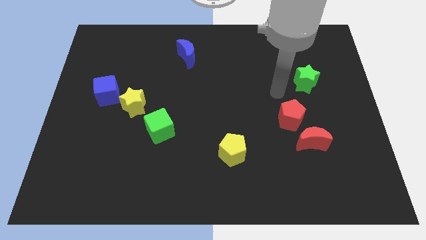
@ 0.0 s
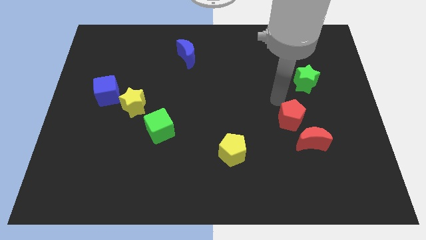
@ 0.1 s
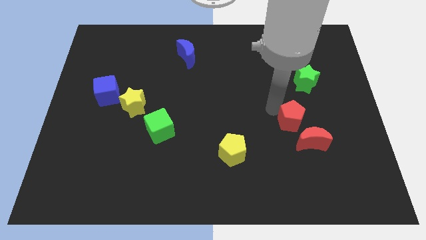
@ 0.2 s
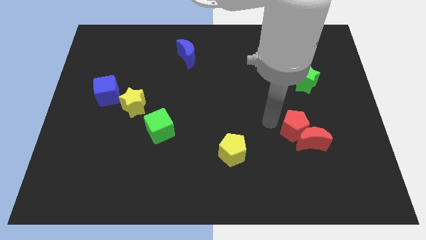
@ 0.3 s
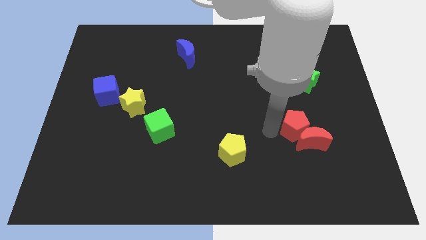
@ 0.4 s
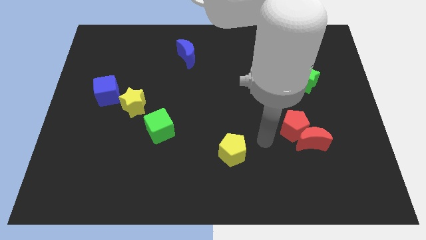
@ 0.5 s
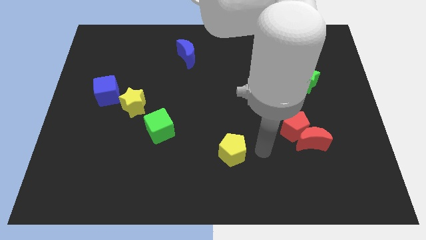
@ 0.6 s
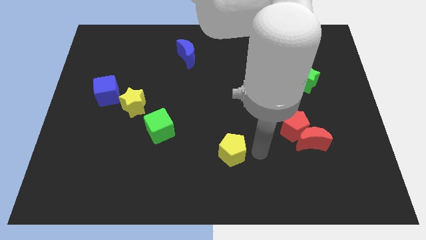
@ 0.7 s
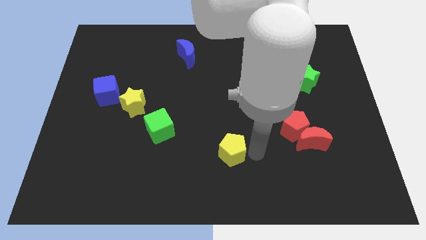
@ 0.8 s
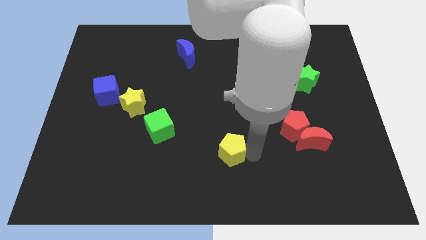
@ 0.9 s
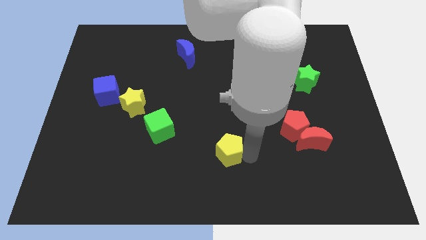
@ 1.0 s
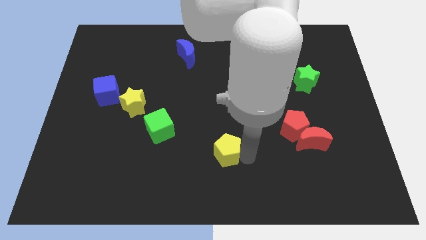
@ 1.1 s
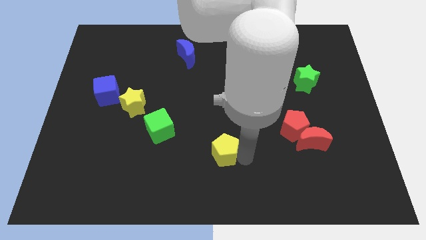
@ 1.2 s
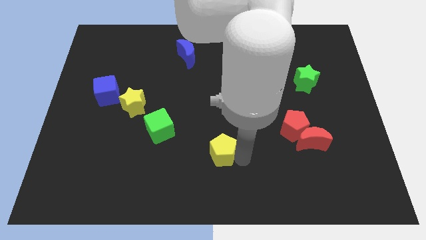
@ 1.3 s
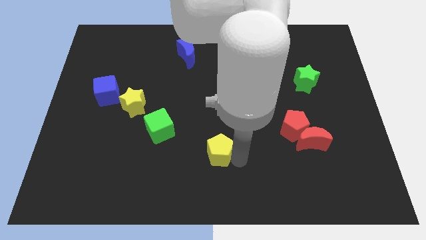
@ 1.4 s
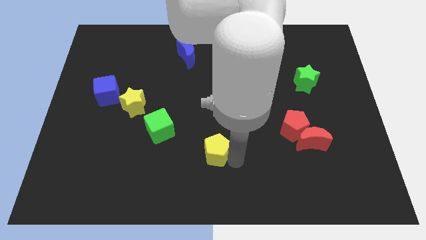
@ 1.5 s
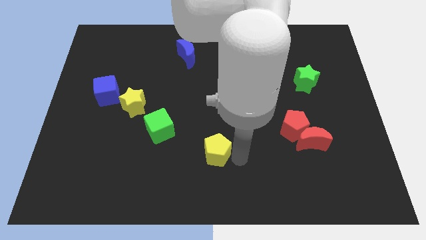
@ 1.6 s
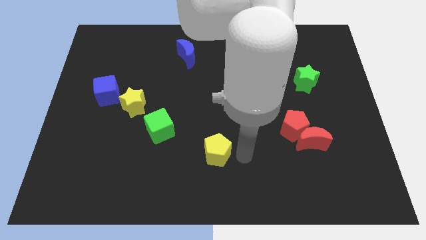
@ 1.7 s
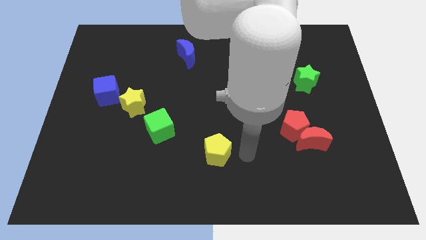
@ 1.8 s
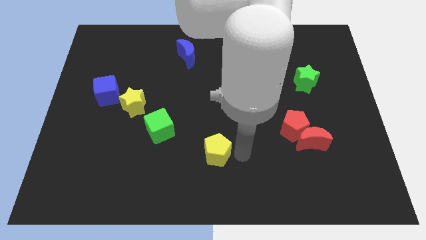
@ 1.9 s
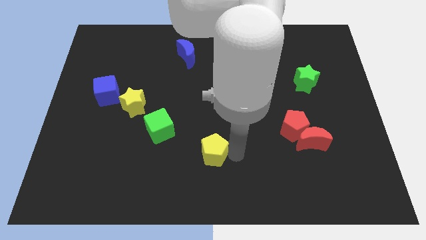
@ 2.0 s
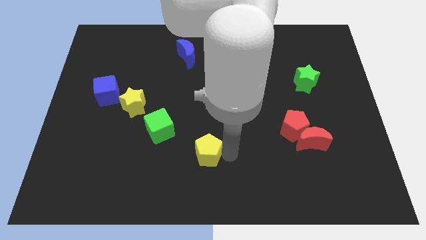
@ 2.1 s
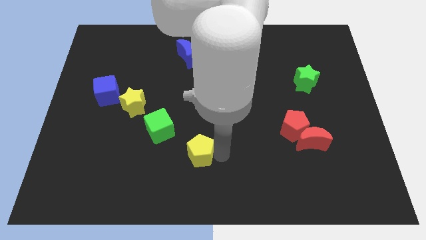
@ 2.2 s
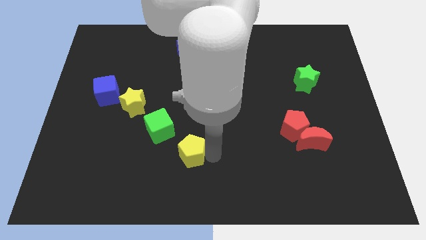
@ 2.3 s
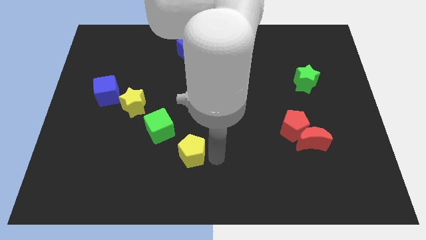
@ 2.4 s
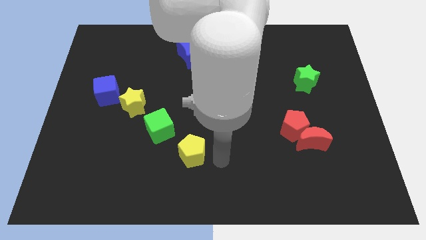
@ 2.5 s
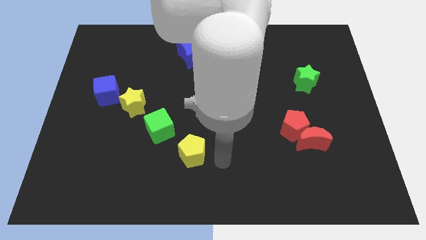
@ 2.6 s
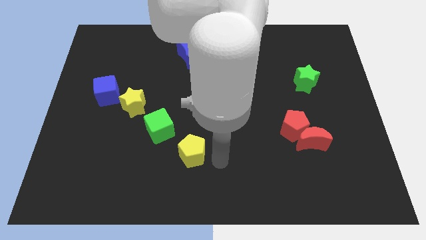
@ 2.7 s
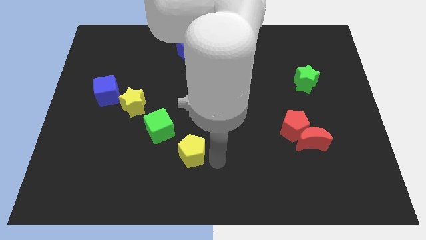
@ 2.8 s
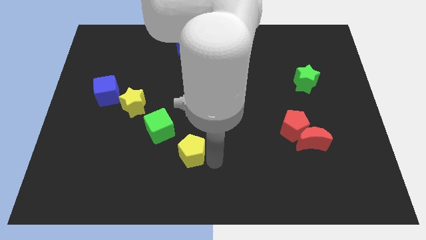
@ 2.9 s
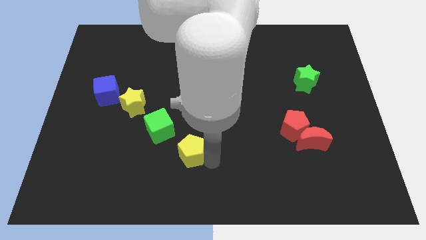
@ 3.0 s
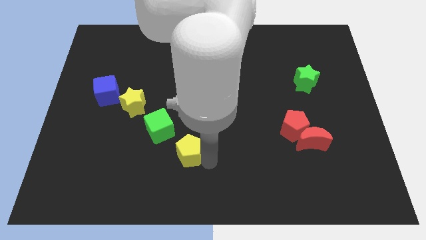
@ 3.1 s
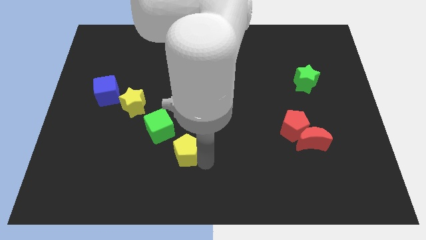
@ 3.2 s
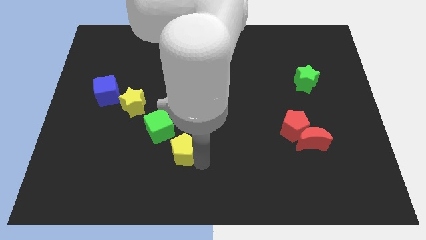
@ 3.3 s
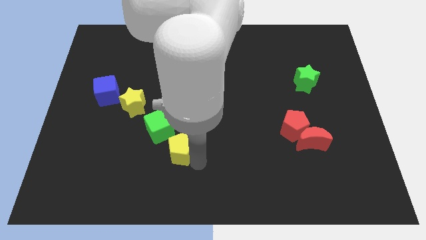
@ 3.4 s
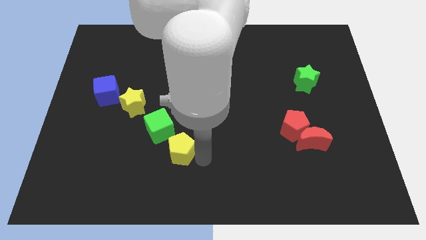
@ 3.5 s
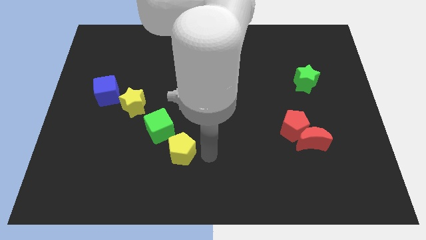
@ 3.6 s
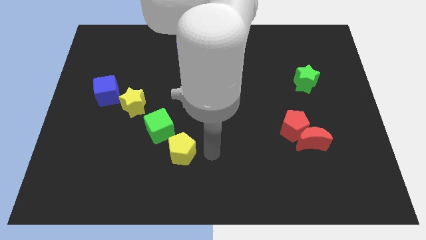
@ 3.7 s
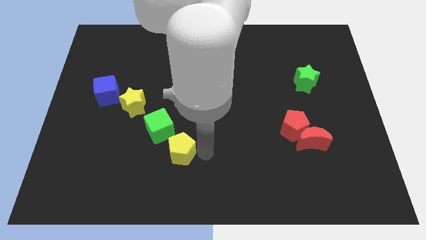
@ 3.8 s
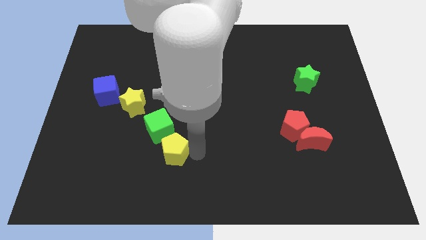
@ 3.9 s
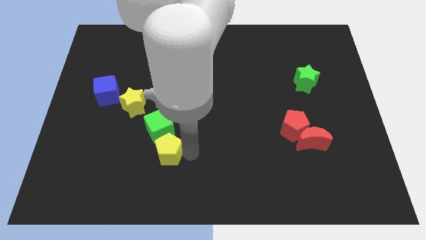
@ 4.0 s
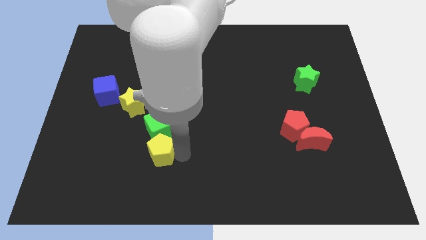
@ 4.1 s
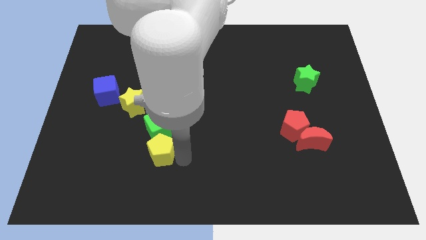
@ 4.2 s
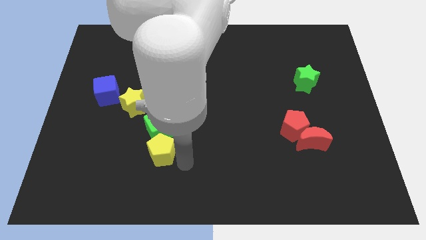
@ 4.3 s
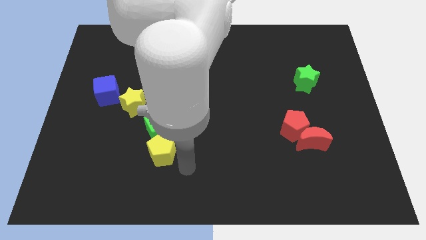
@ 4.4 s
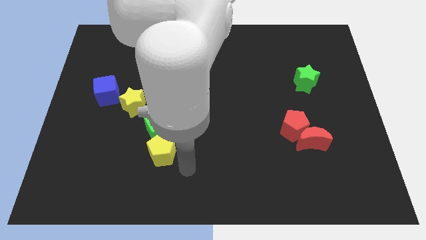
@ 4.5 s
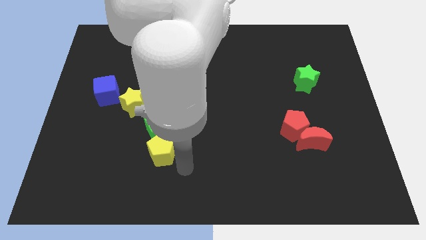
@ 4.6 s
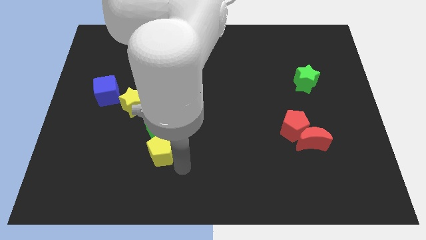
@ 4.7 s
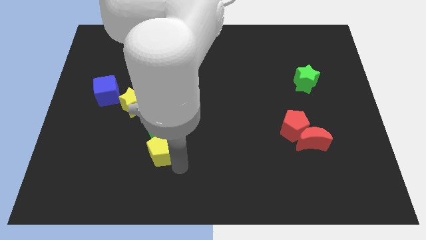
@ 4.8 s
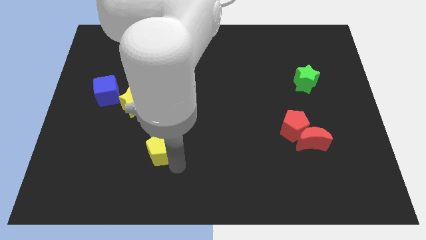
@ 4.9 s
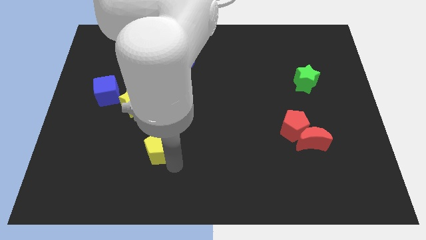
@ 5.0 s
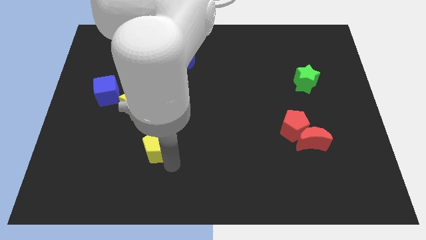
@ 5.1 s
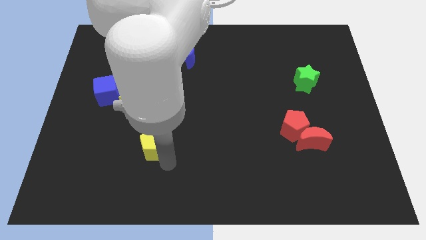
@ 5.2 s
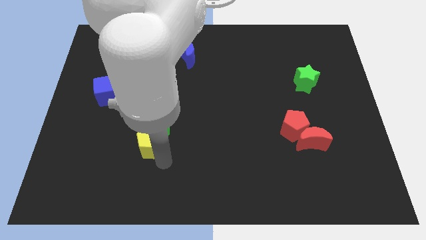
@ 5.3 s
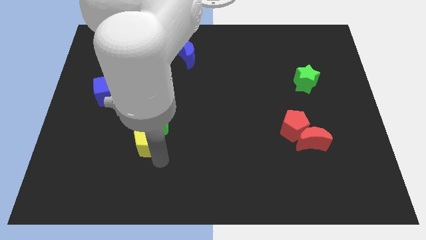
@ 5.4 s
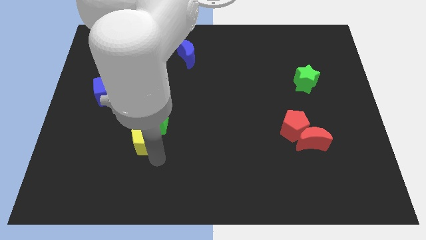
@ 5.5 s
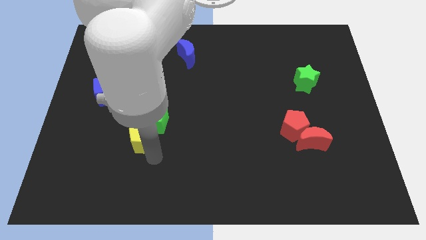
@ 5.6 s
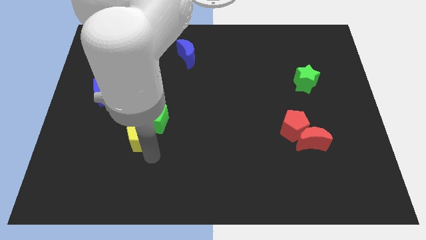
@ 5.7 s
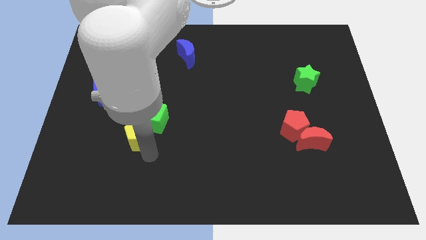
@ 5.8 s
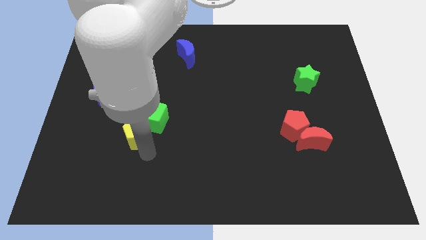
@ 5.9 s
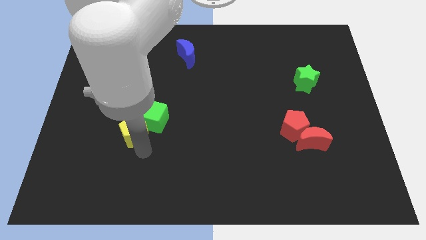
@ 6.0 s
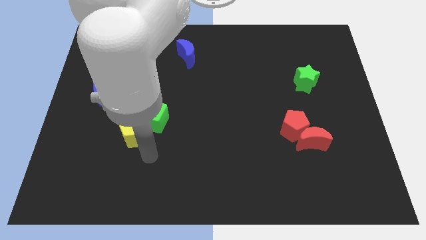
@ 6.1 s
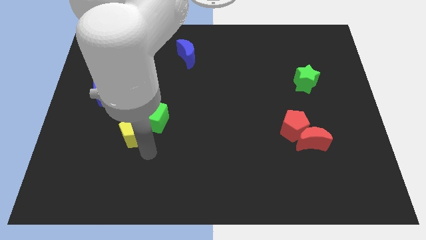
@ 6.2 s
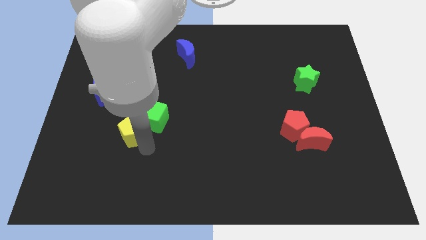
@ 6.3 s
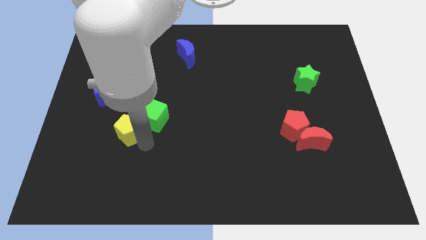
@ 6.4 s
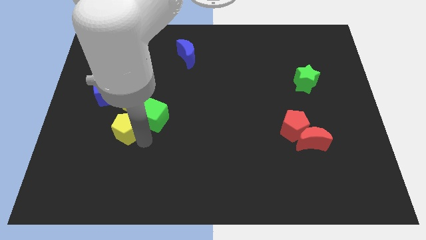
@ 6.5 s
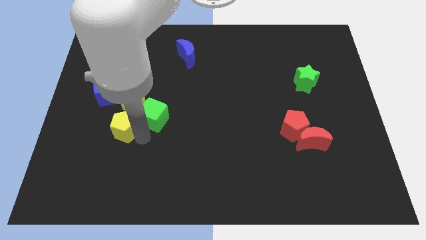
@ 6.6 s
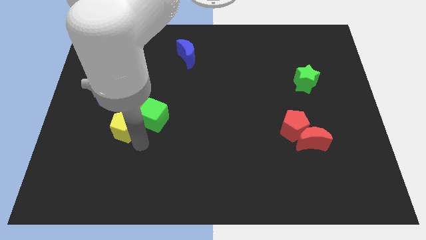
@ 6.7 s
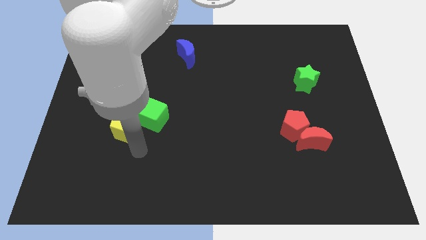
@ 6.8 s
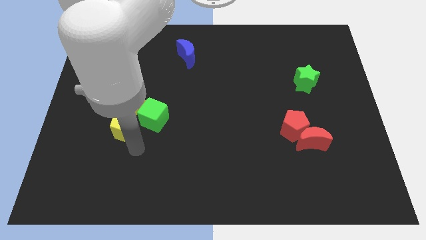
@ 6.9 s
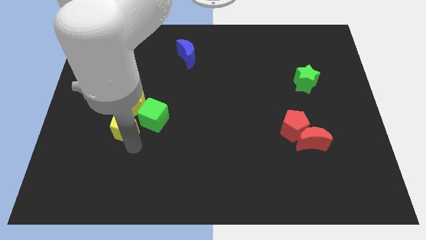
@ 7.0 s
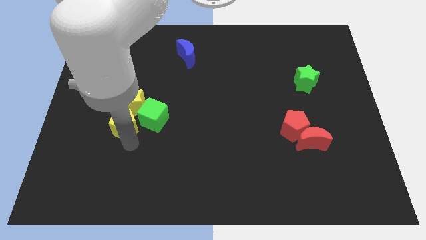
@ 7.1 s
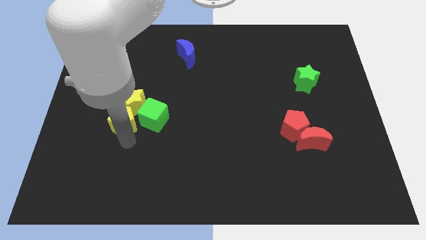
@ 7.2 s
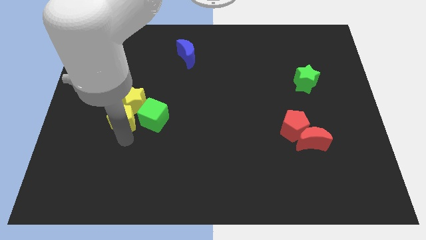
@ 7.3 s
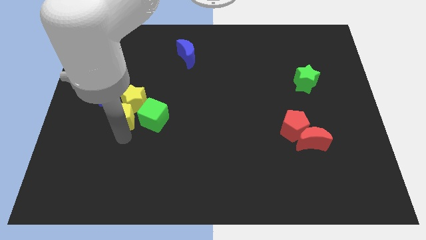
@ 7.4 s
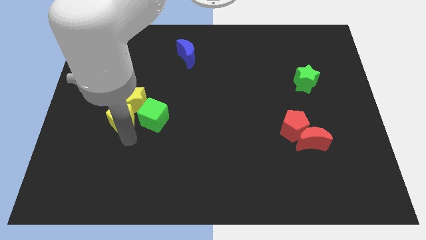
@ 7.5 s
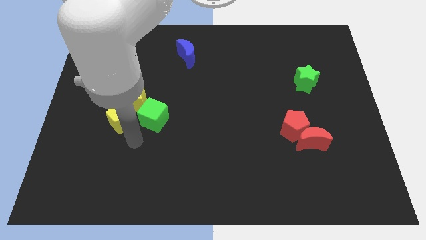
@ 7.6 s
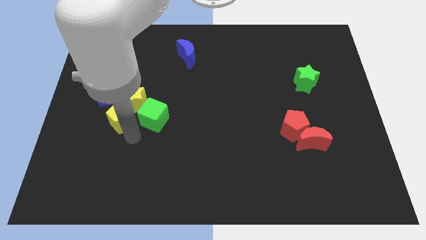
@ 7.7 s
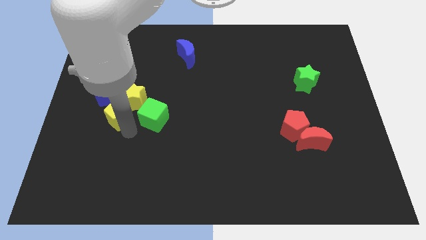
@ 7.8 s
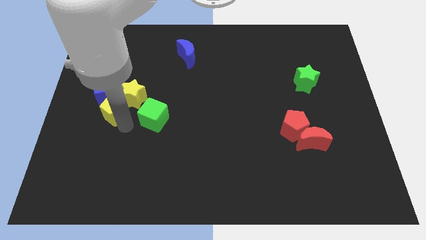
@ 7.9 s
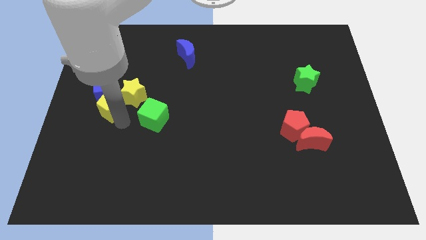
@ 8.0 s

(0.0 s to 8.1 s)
push the yellow pentagon close to the blue cube
